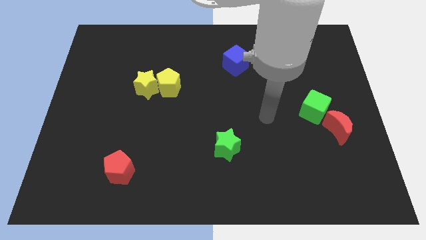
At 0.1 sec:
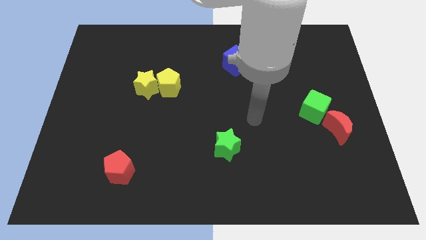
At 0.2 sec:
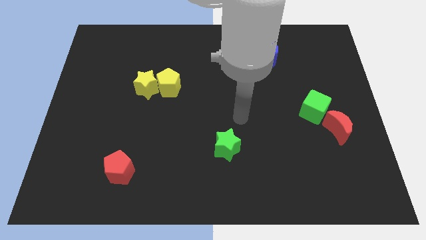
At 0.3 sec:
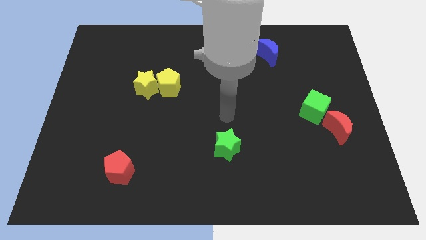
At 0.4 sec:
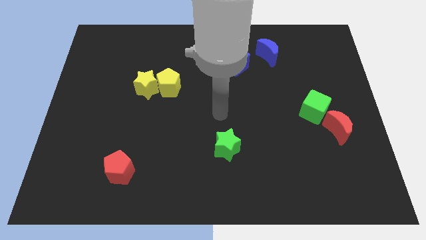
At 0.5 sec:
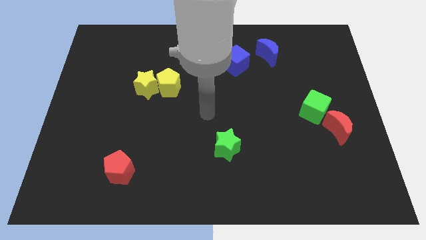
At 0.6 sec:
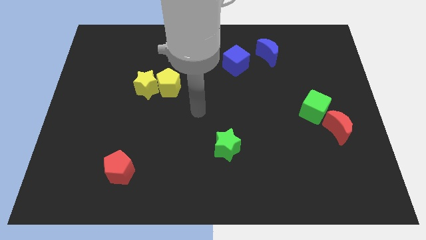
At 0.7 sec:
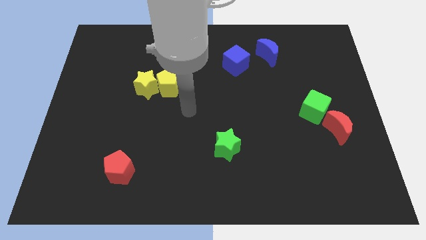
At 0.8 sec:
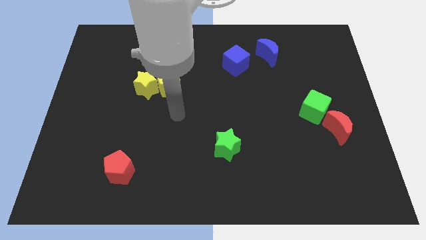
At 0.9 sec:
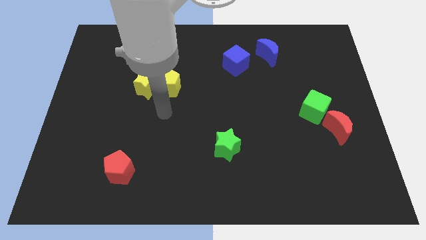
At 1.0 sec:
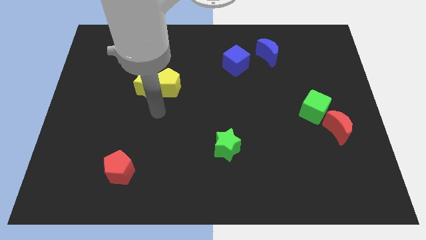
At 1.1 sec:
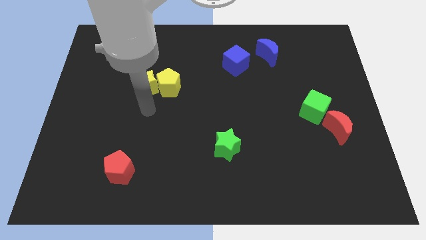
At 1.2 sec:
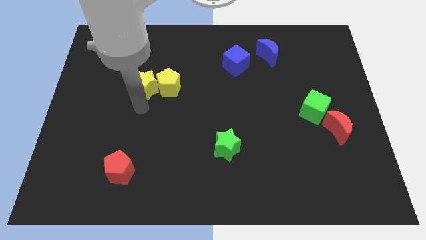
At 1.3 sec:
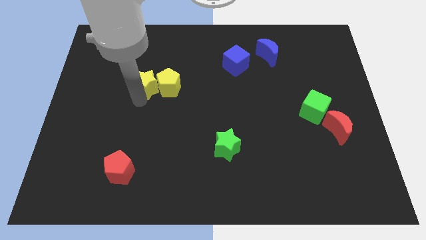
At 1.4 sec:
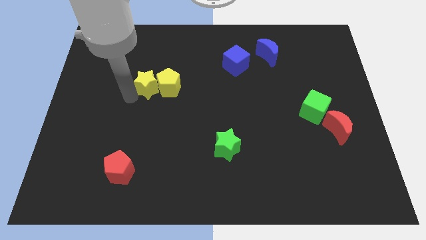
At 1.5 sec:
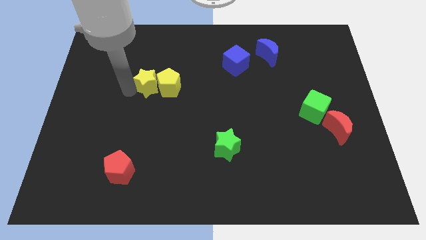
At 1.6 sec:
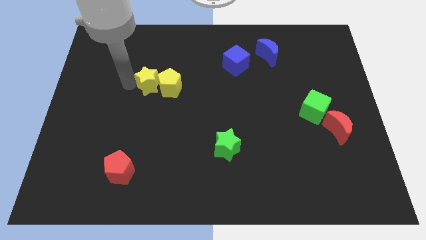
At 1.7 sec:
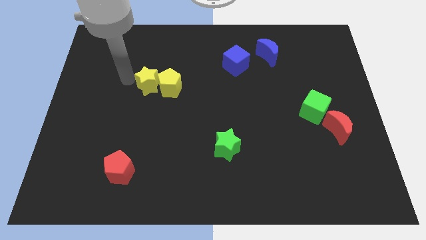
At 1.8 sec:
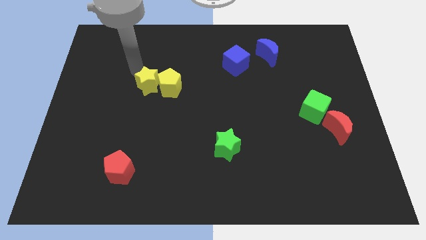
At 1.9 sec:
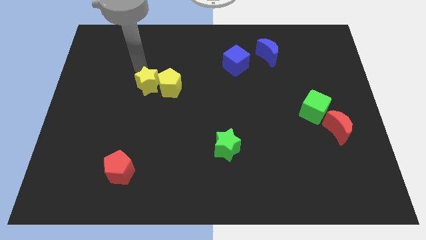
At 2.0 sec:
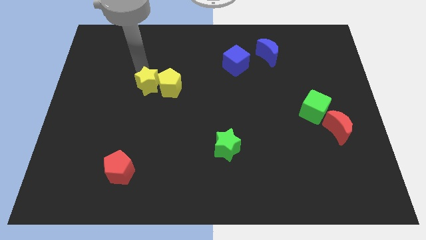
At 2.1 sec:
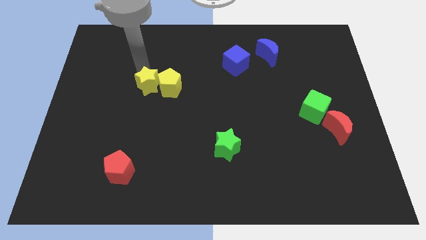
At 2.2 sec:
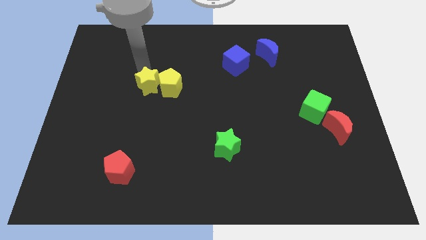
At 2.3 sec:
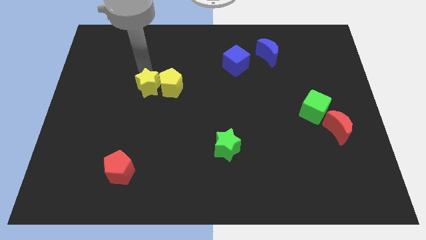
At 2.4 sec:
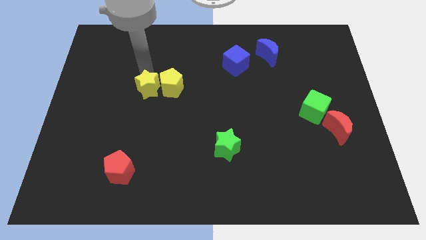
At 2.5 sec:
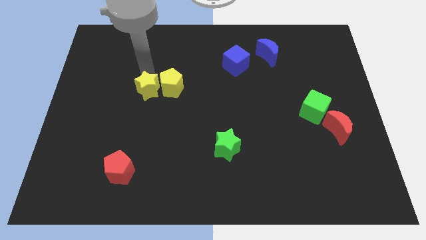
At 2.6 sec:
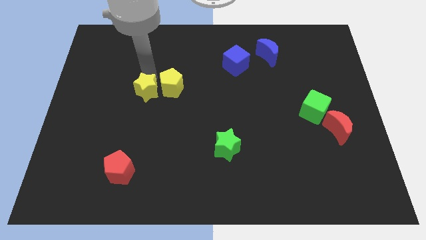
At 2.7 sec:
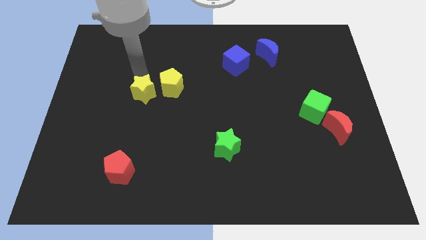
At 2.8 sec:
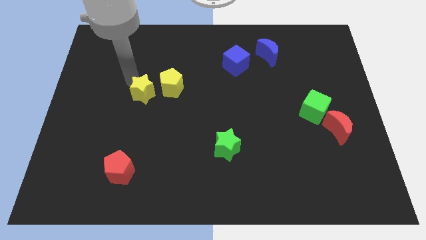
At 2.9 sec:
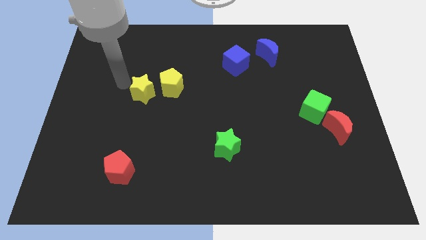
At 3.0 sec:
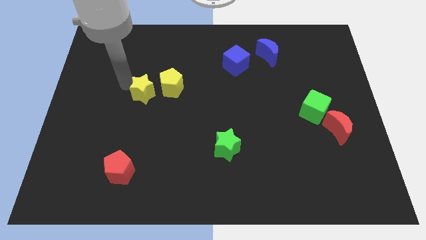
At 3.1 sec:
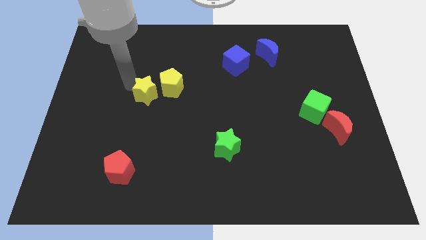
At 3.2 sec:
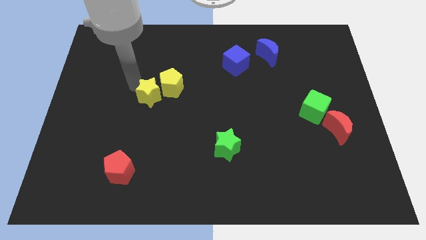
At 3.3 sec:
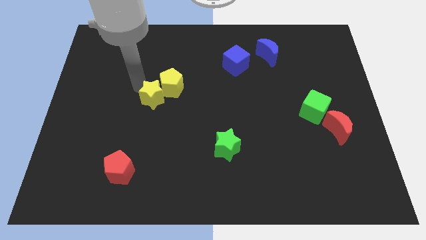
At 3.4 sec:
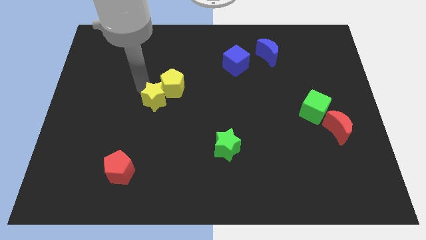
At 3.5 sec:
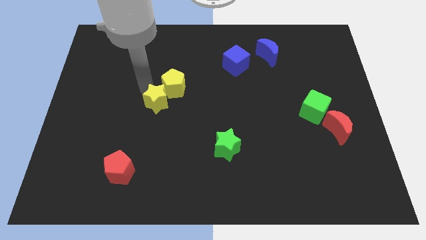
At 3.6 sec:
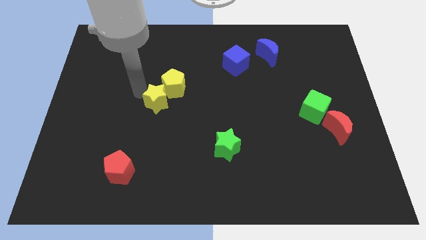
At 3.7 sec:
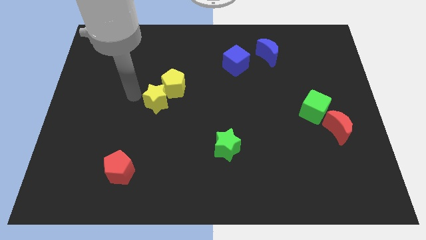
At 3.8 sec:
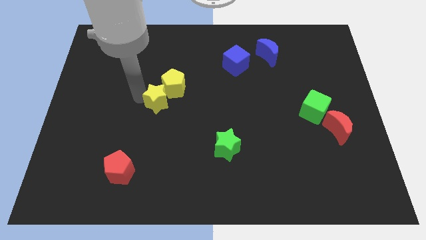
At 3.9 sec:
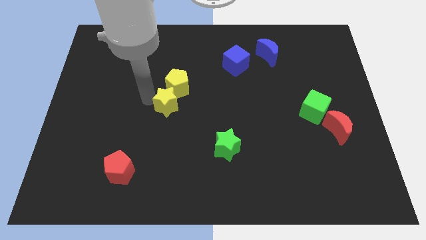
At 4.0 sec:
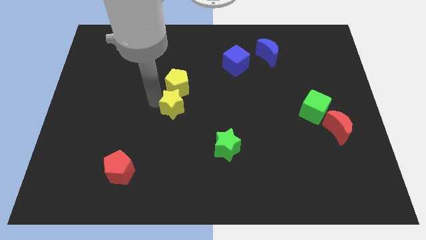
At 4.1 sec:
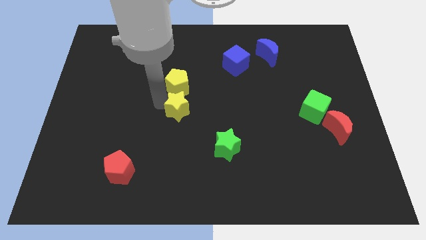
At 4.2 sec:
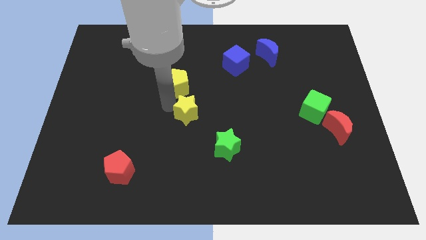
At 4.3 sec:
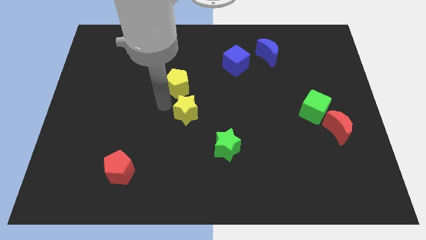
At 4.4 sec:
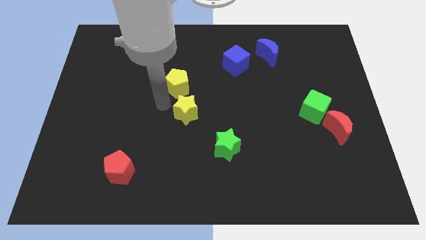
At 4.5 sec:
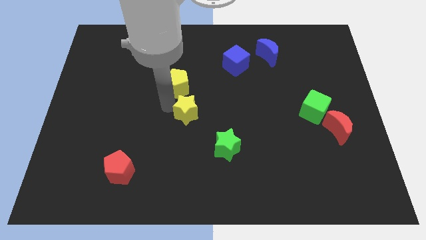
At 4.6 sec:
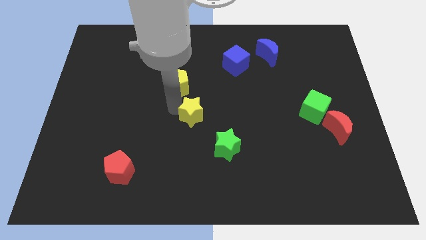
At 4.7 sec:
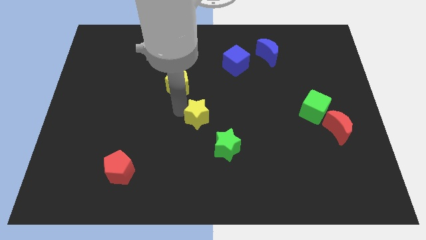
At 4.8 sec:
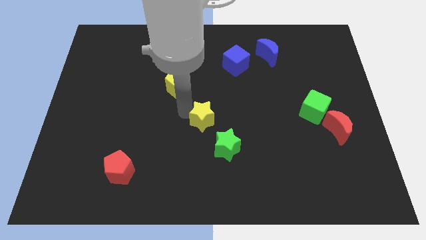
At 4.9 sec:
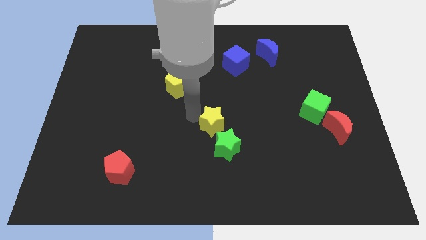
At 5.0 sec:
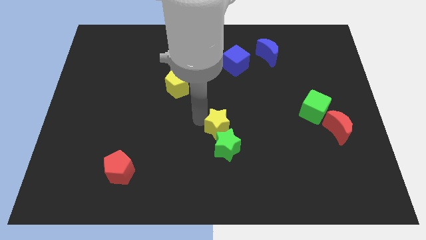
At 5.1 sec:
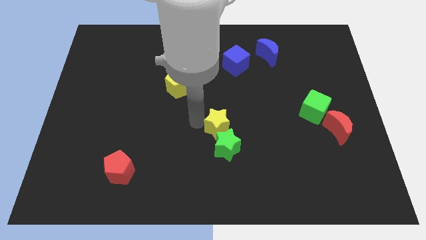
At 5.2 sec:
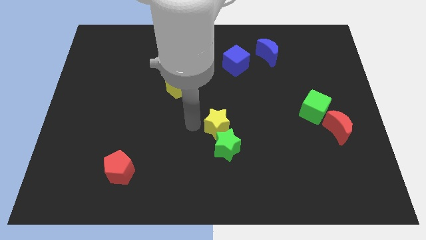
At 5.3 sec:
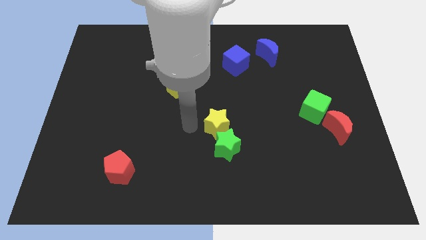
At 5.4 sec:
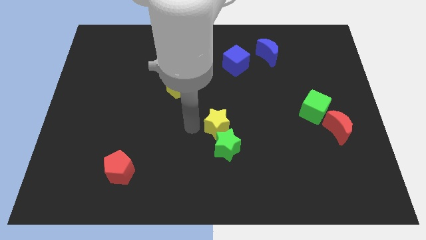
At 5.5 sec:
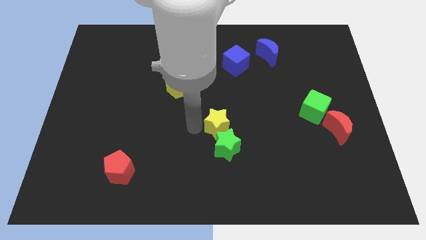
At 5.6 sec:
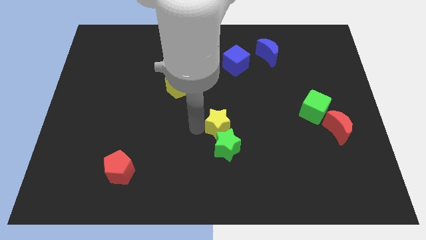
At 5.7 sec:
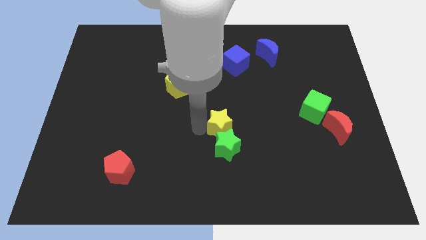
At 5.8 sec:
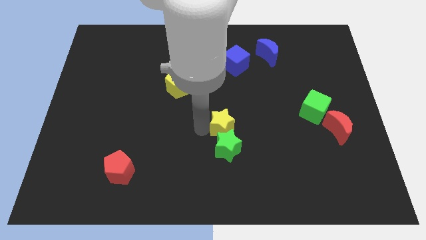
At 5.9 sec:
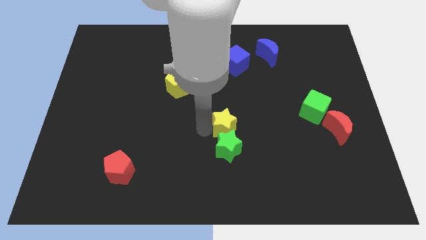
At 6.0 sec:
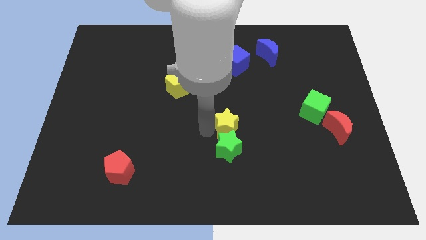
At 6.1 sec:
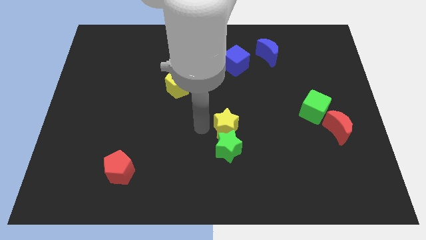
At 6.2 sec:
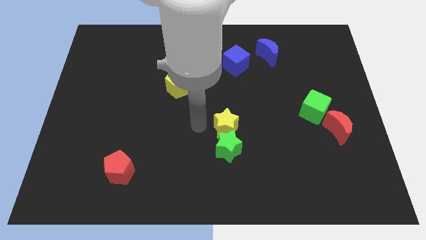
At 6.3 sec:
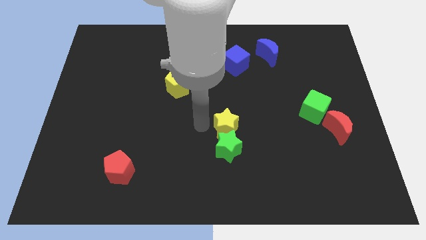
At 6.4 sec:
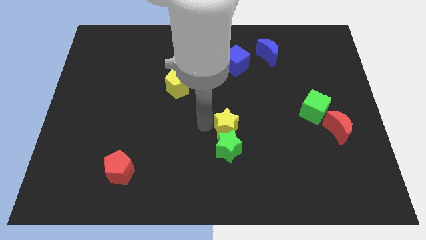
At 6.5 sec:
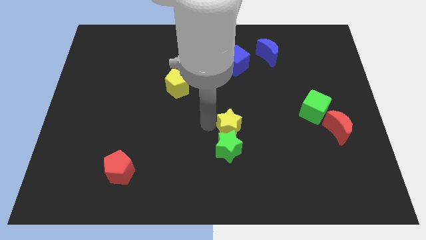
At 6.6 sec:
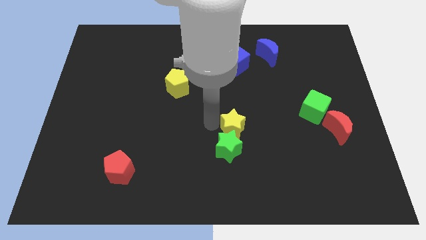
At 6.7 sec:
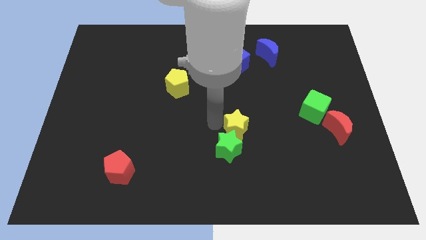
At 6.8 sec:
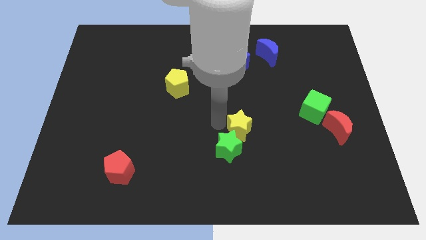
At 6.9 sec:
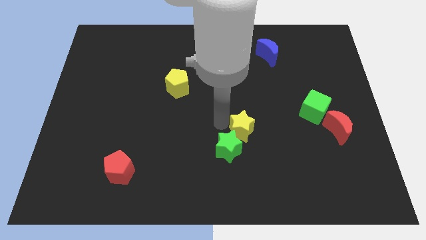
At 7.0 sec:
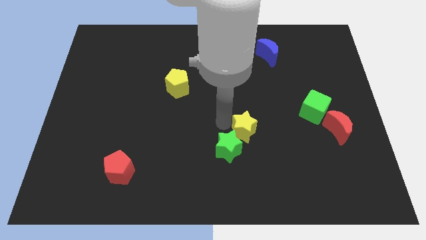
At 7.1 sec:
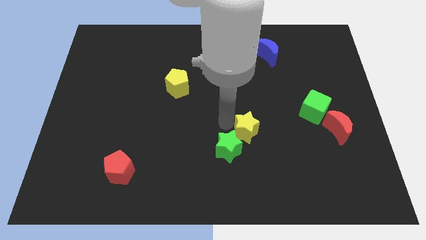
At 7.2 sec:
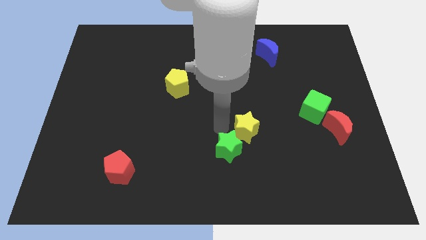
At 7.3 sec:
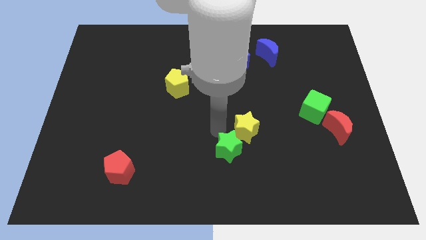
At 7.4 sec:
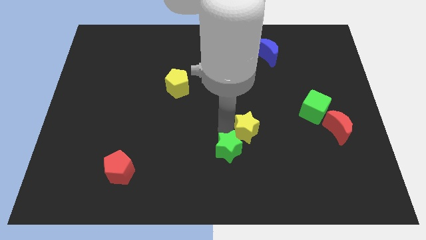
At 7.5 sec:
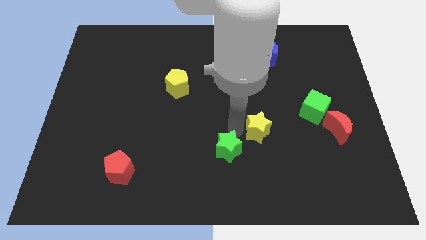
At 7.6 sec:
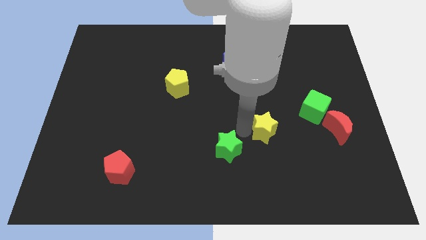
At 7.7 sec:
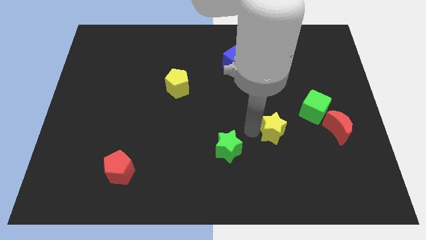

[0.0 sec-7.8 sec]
slide the yellow star just left of the red moon
